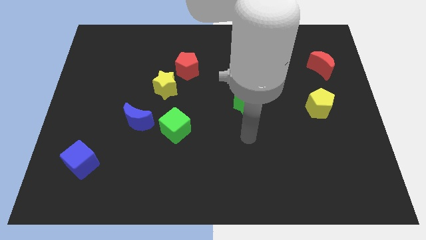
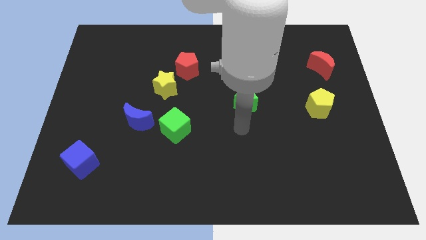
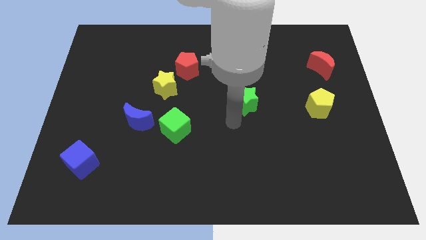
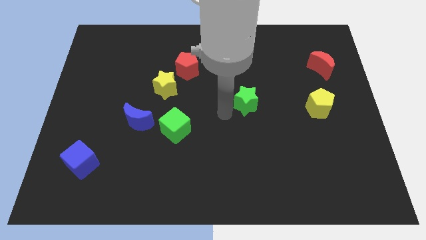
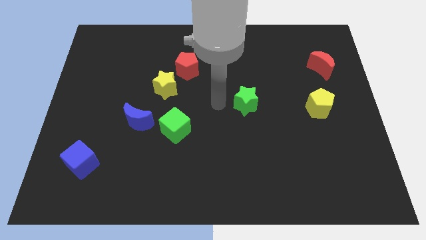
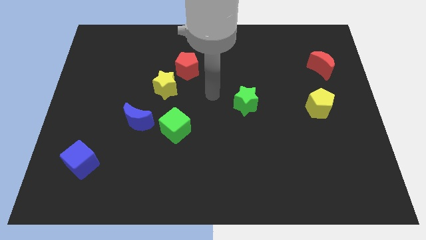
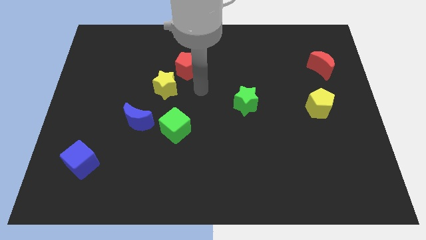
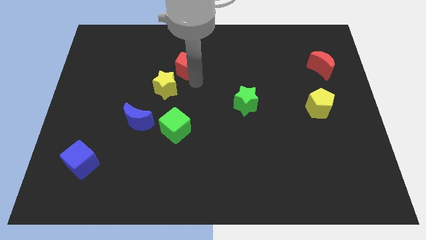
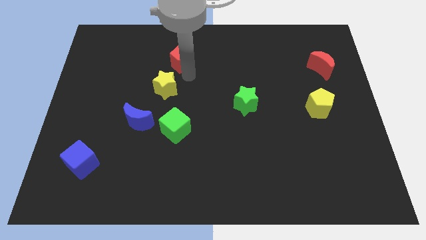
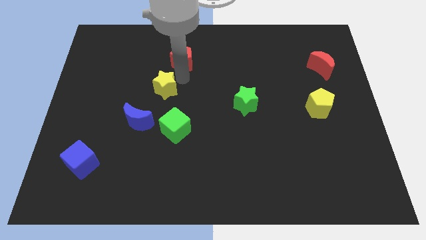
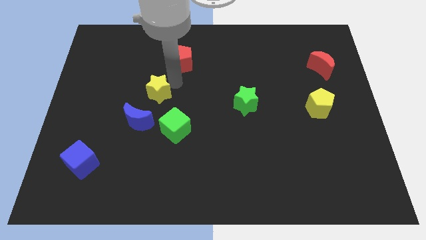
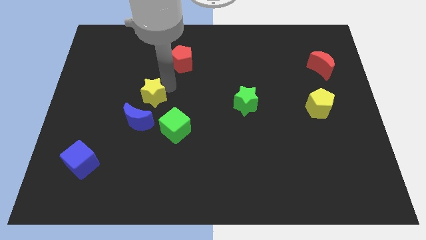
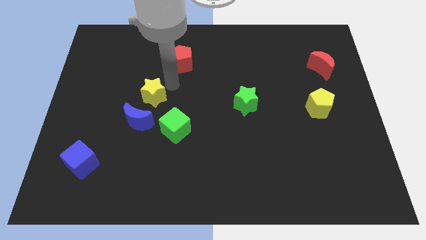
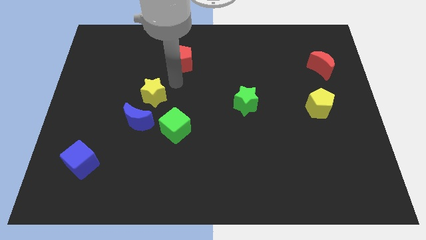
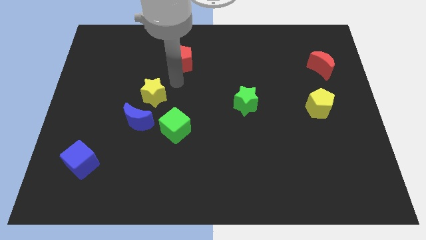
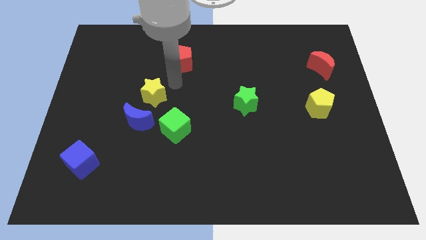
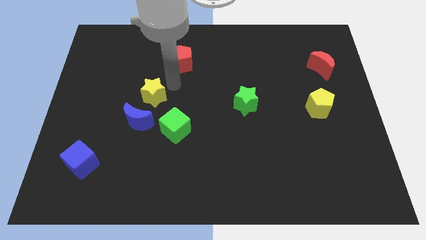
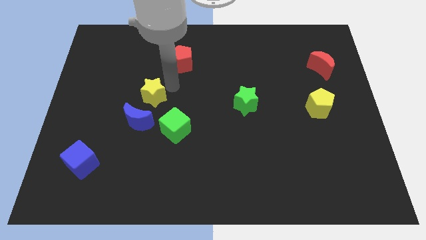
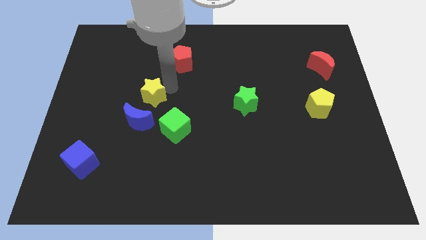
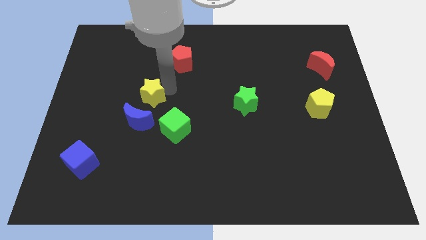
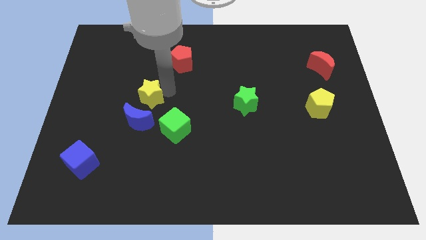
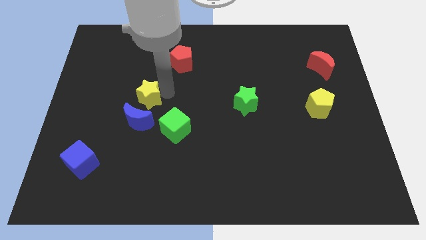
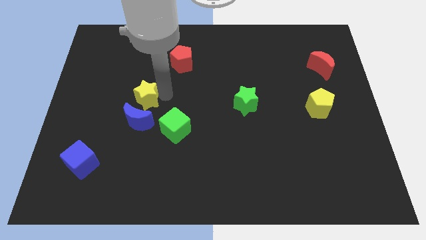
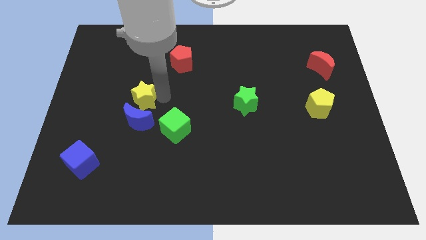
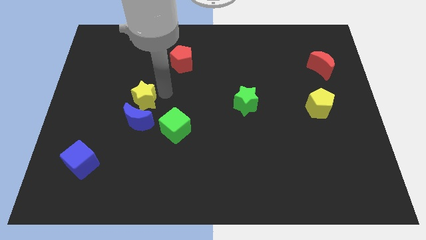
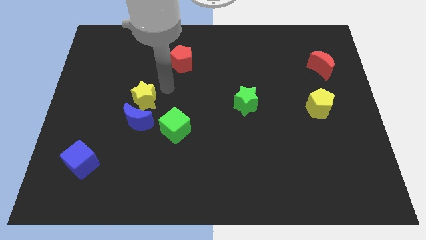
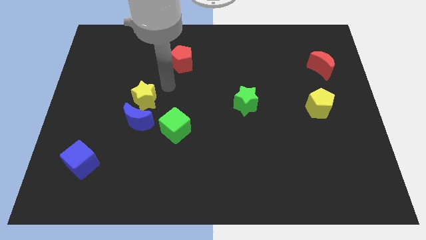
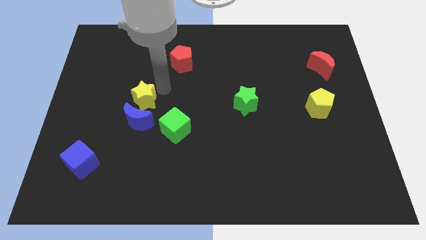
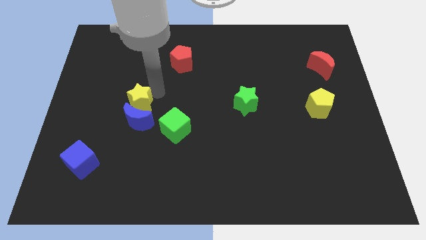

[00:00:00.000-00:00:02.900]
push the yellow star downwards and left diagonally slightly

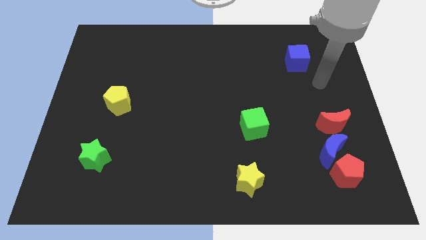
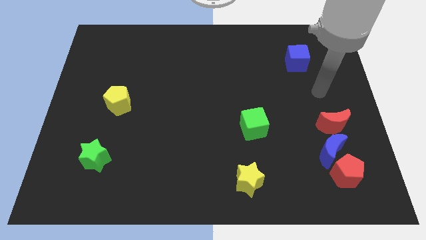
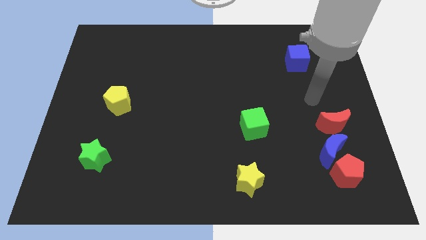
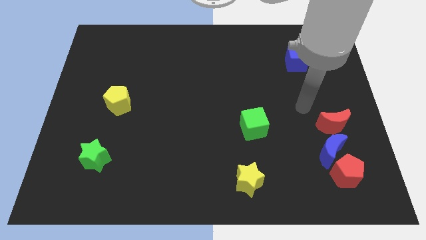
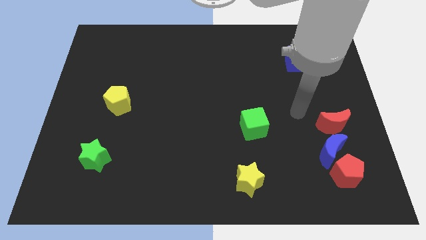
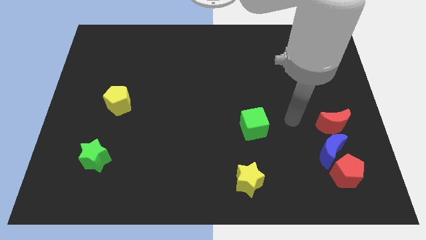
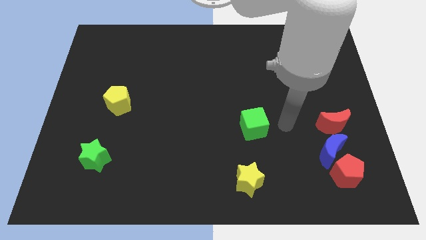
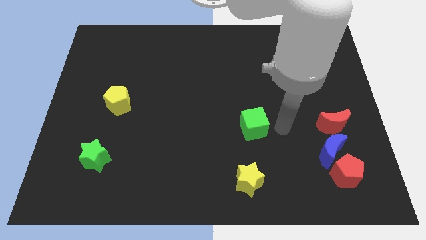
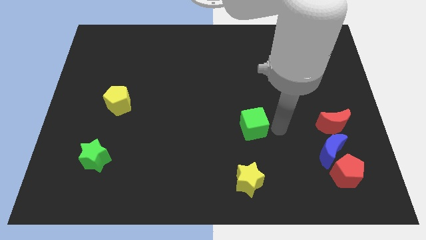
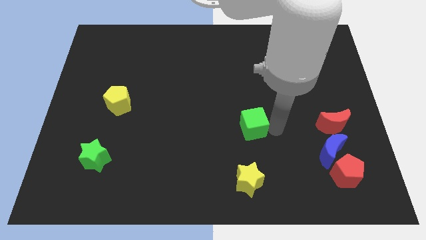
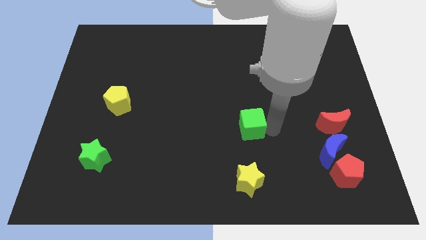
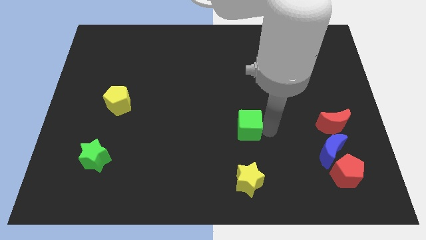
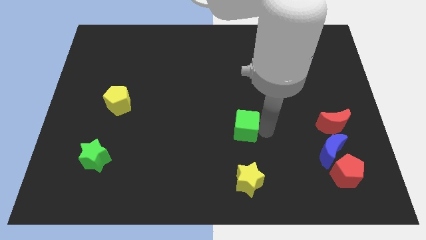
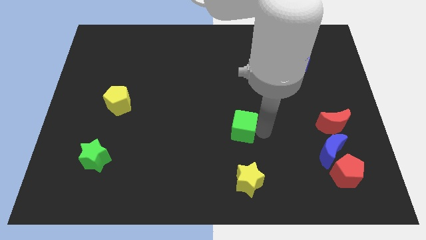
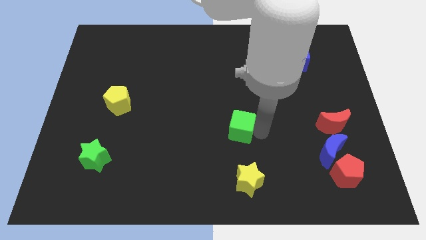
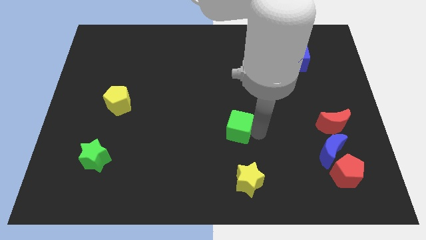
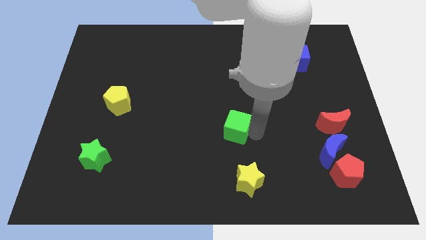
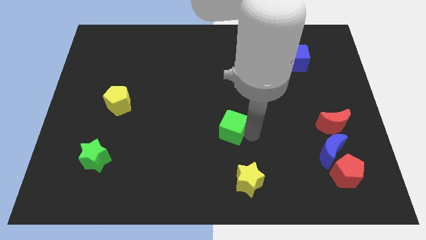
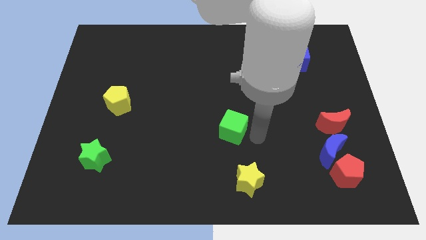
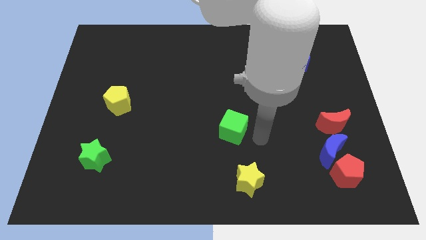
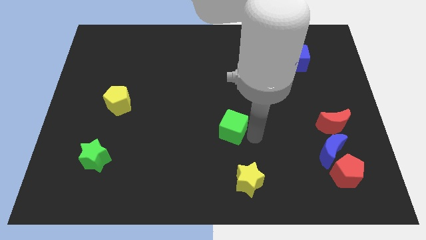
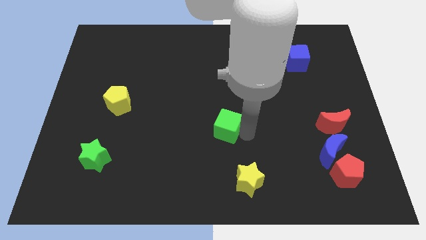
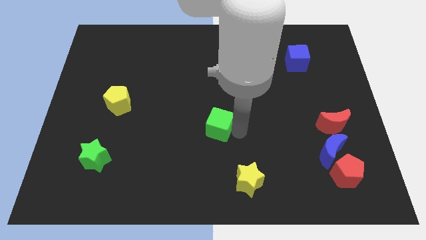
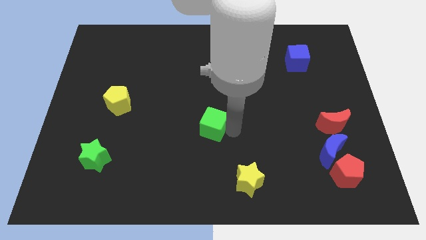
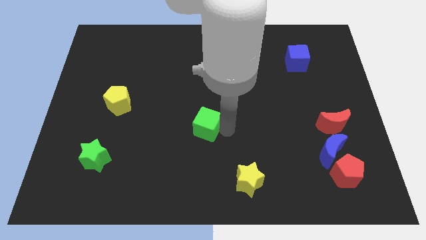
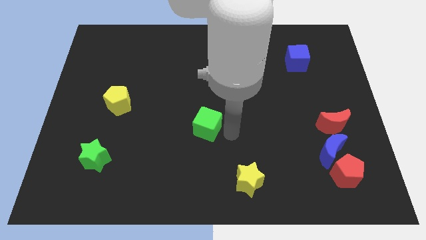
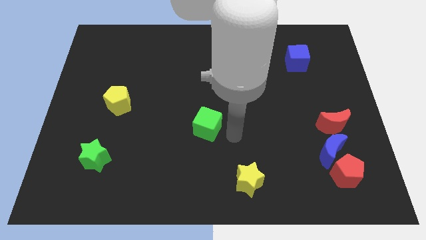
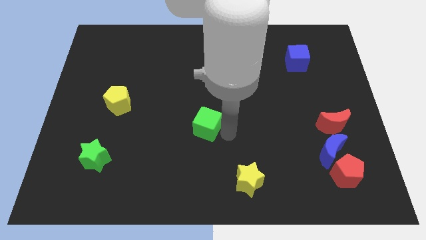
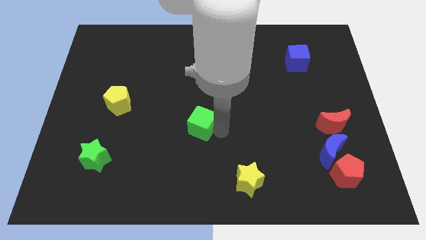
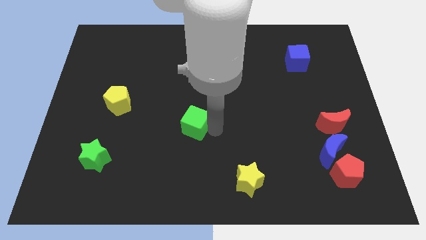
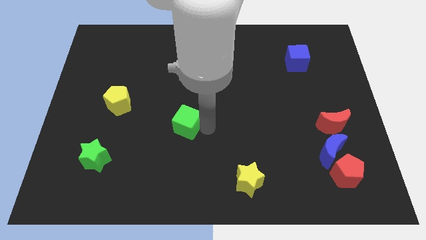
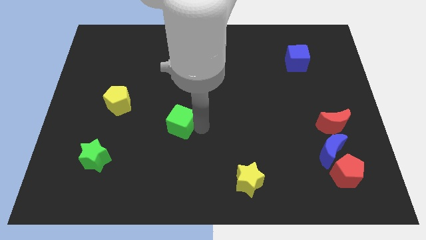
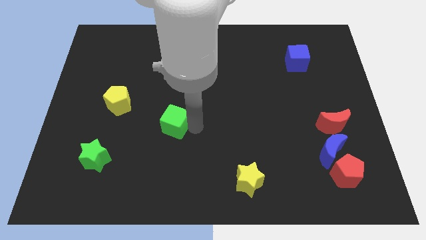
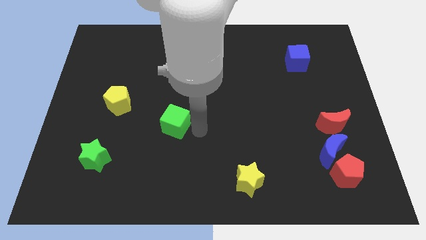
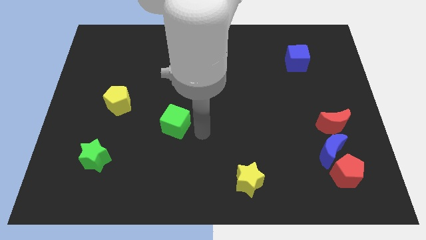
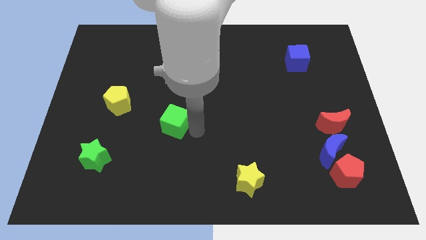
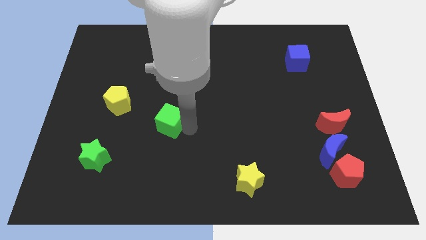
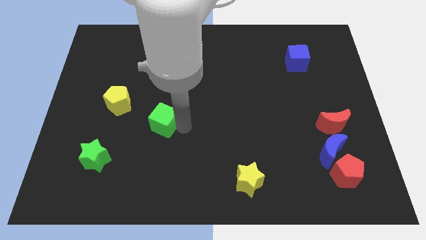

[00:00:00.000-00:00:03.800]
slide the green cube to the left

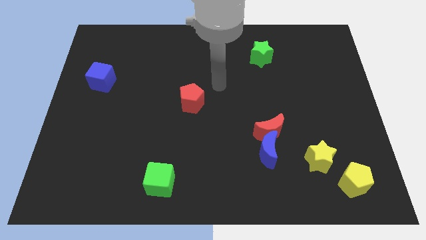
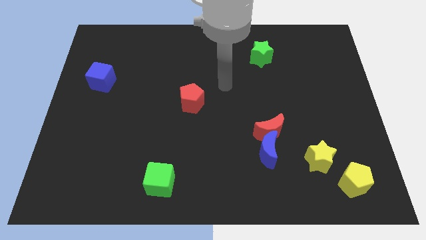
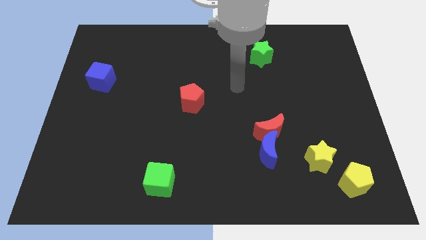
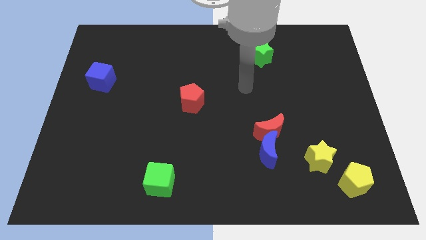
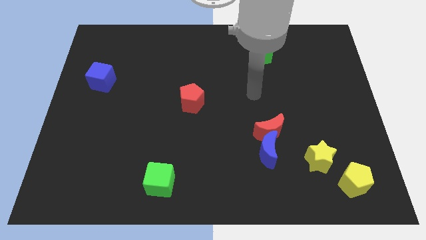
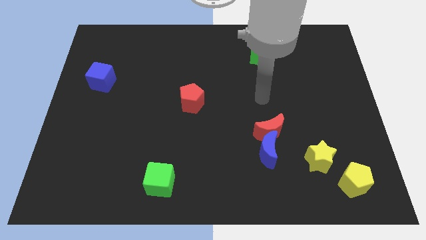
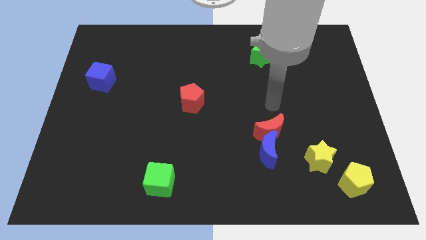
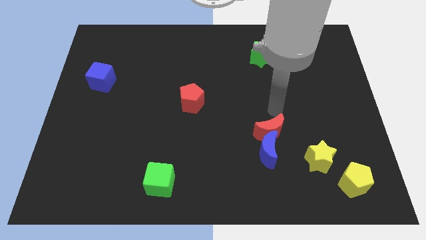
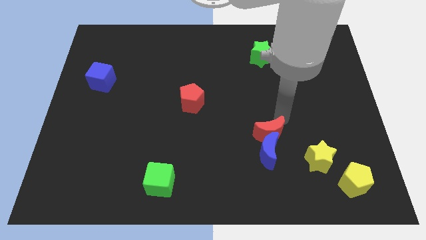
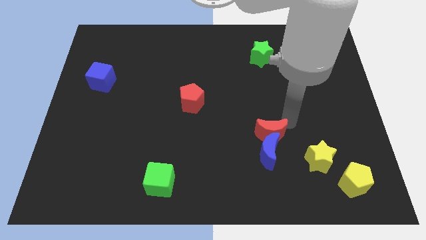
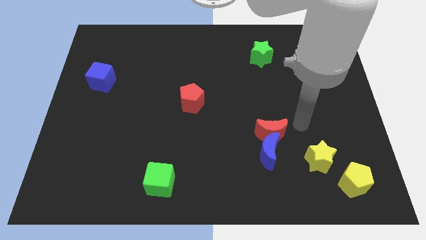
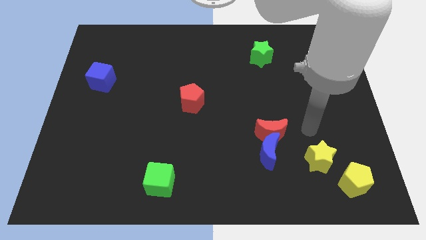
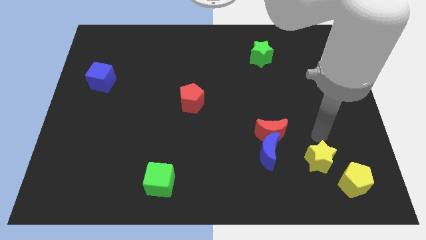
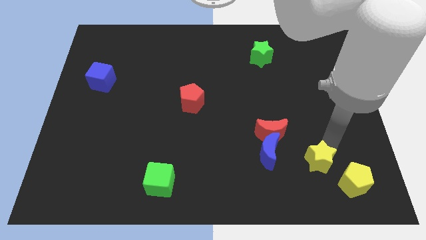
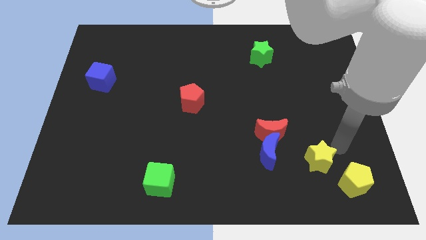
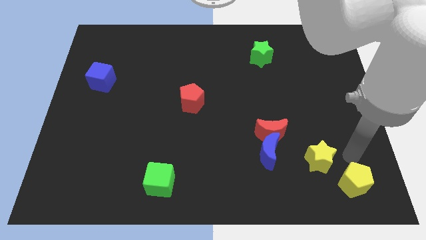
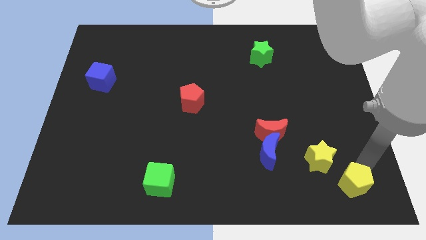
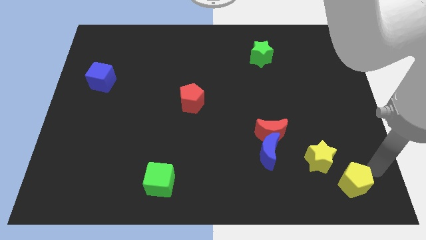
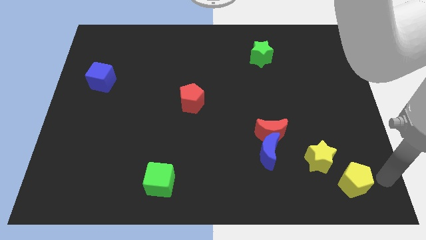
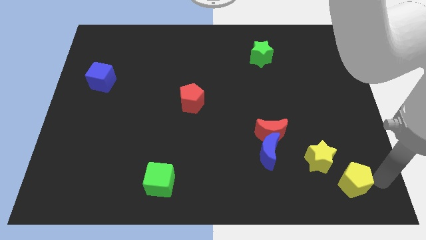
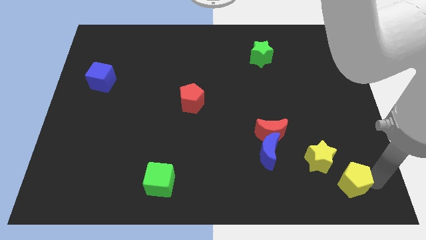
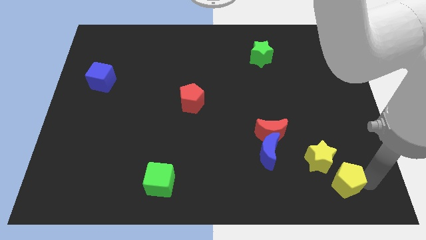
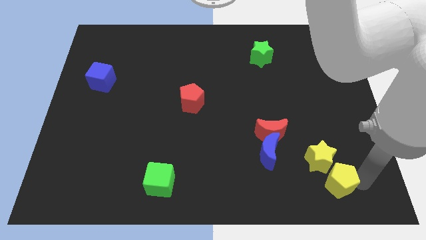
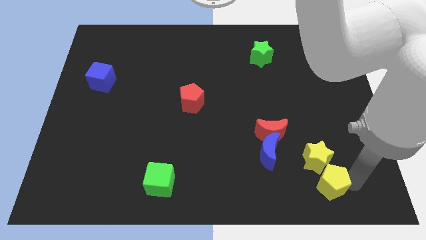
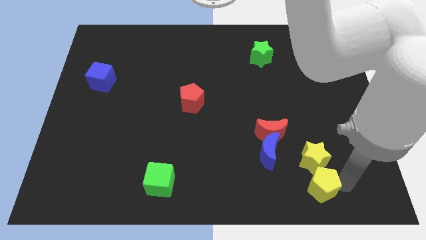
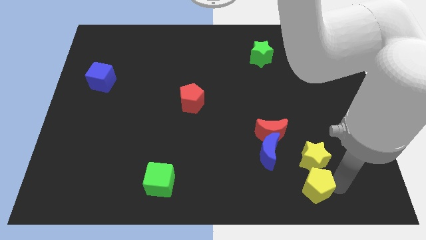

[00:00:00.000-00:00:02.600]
slightly move the yellow pentagon left
